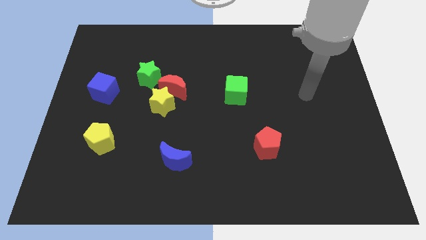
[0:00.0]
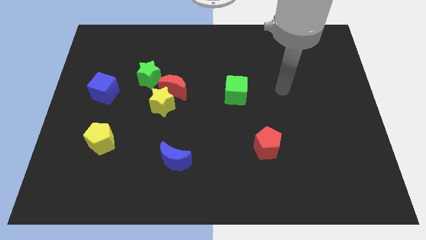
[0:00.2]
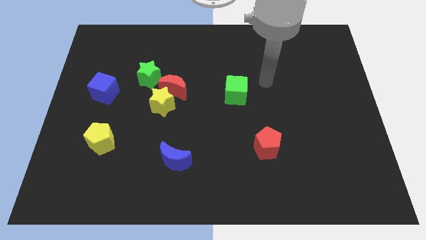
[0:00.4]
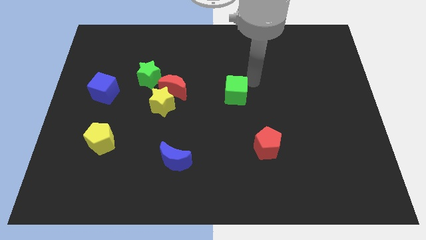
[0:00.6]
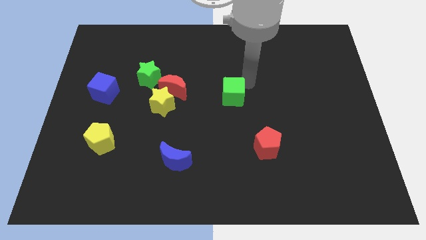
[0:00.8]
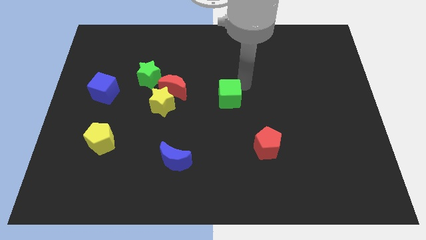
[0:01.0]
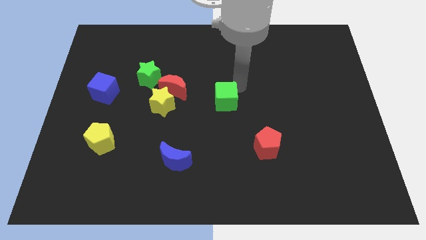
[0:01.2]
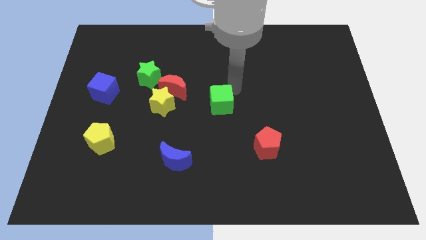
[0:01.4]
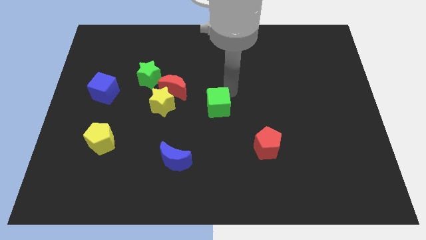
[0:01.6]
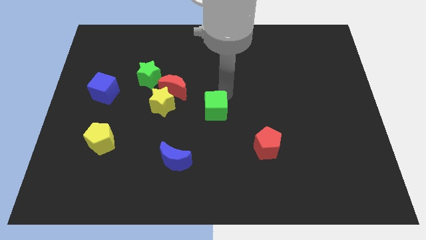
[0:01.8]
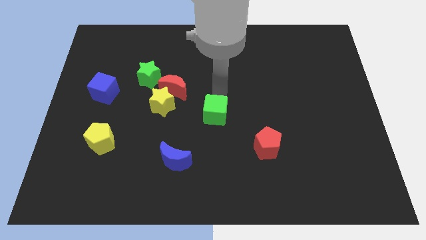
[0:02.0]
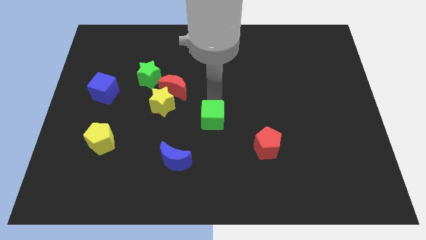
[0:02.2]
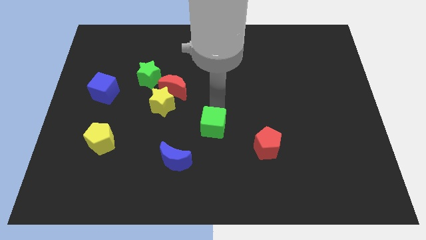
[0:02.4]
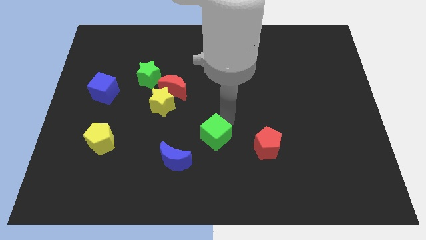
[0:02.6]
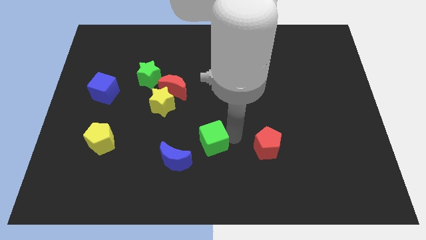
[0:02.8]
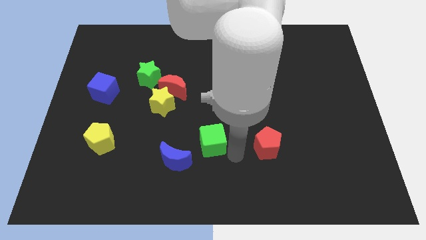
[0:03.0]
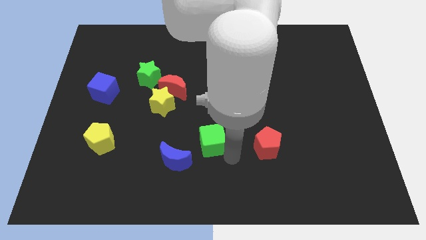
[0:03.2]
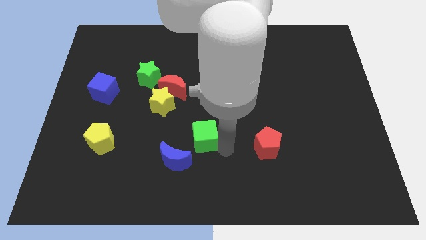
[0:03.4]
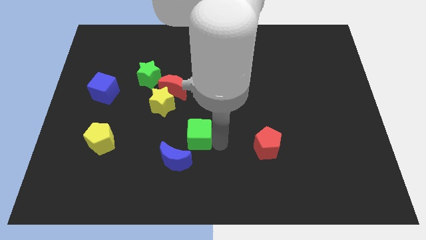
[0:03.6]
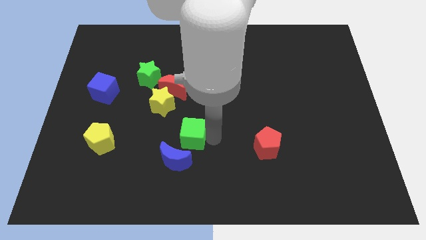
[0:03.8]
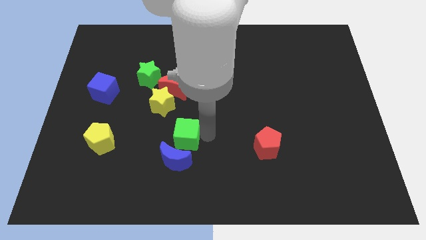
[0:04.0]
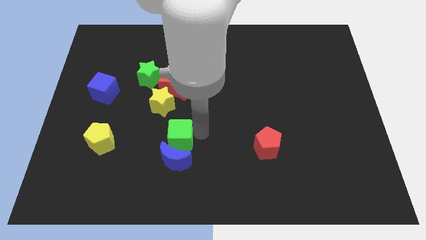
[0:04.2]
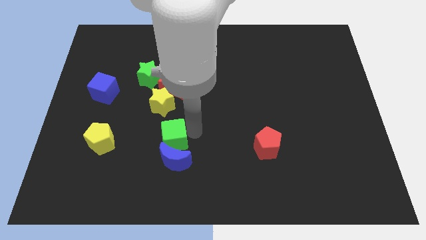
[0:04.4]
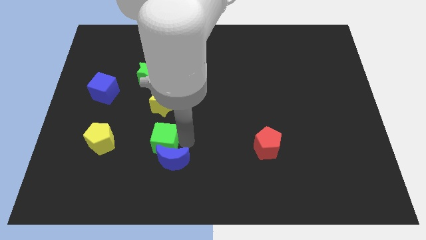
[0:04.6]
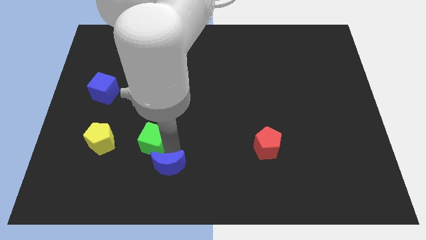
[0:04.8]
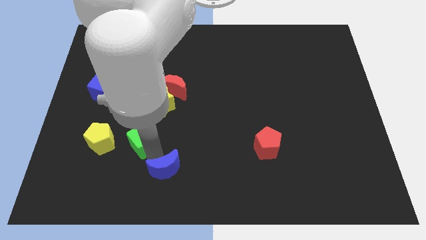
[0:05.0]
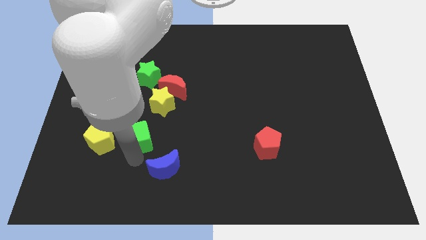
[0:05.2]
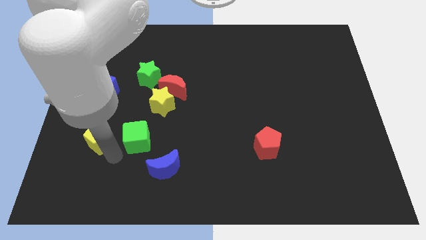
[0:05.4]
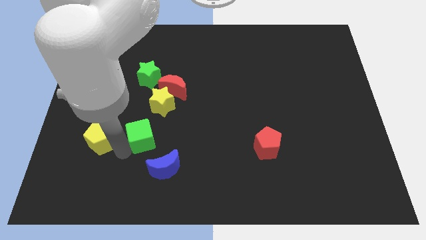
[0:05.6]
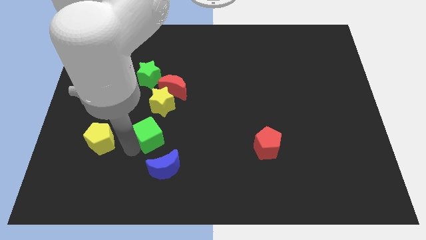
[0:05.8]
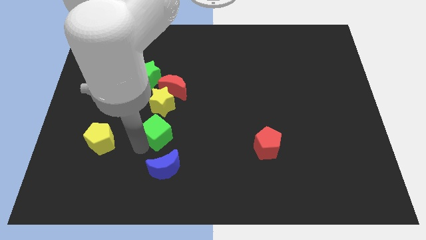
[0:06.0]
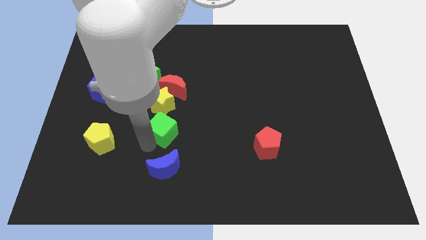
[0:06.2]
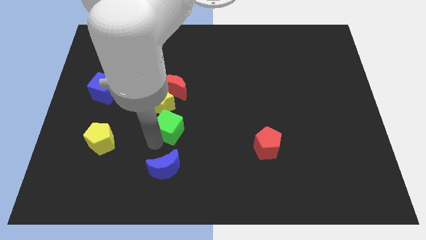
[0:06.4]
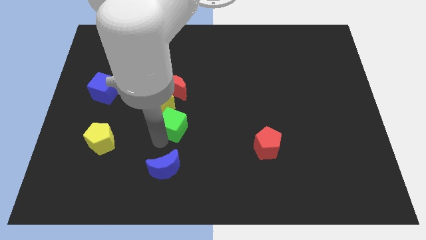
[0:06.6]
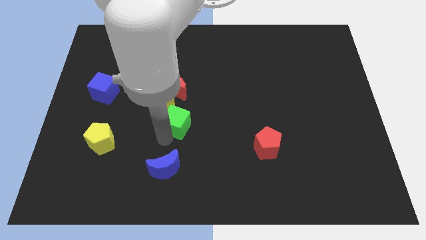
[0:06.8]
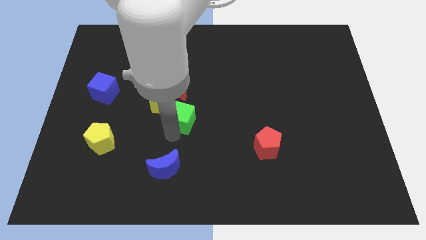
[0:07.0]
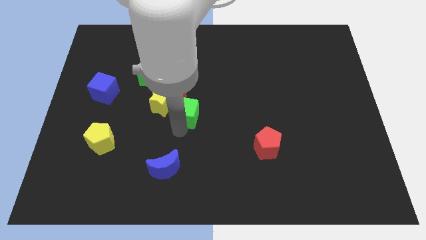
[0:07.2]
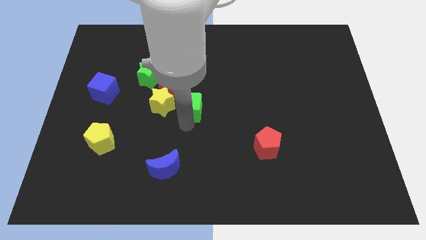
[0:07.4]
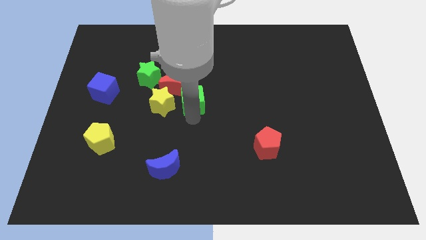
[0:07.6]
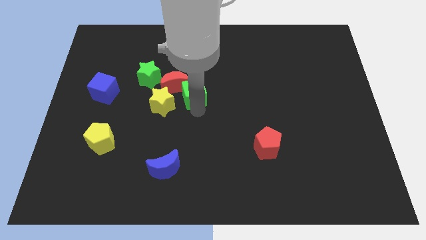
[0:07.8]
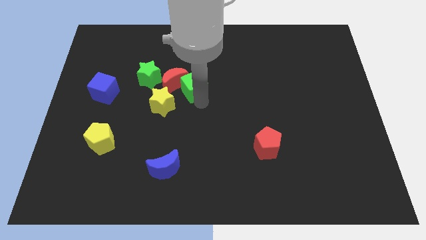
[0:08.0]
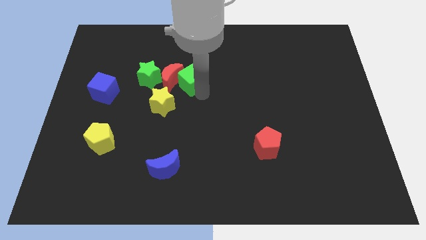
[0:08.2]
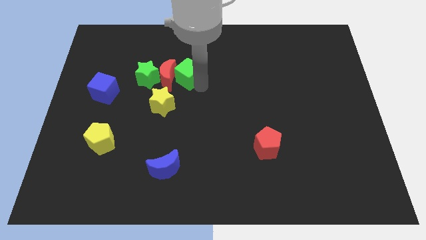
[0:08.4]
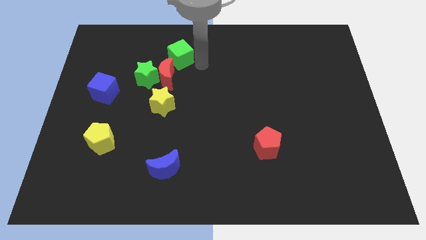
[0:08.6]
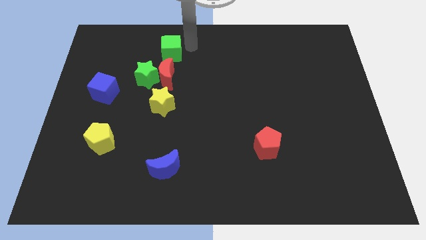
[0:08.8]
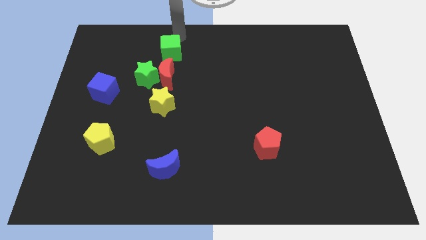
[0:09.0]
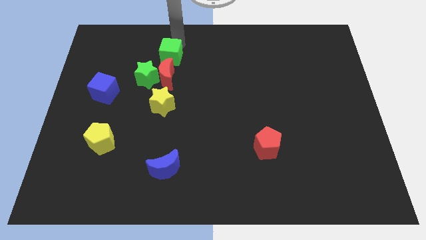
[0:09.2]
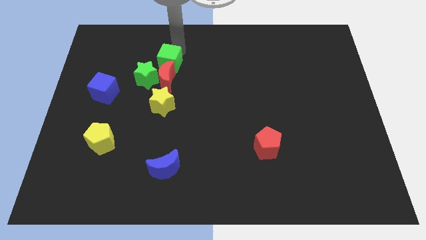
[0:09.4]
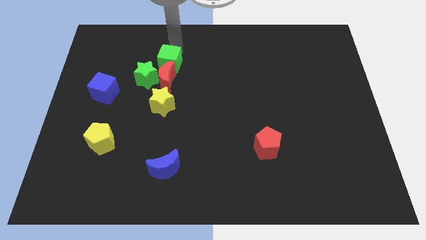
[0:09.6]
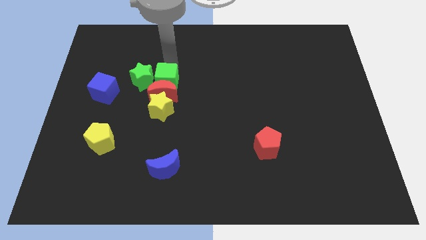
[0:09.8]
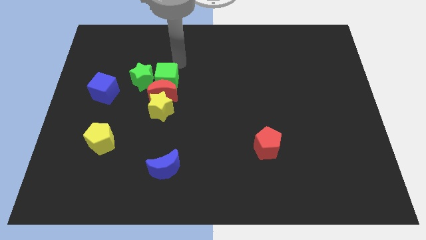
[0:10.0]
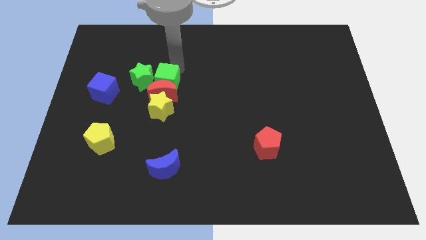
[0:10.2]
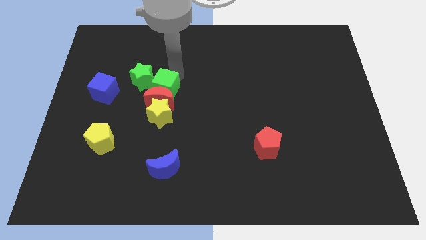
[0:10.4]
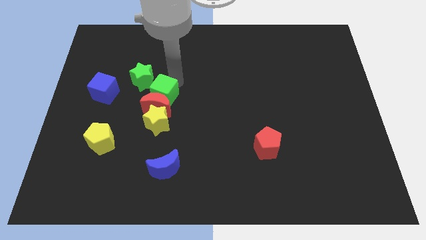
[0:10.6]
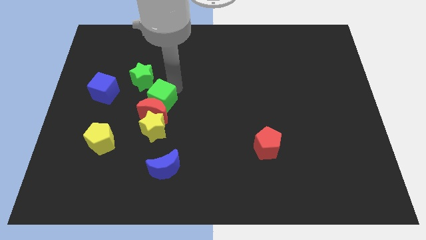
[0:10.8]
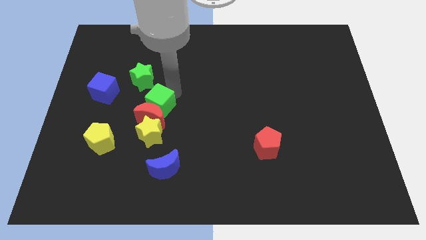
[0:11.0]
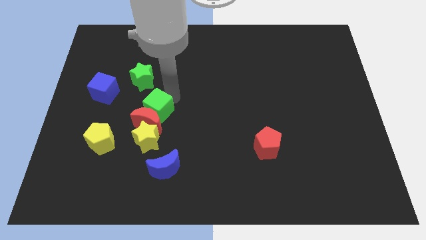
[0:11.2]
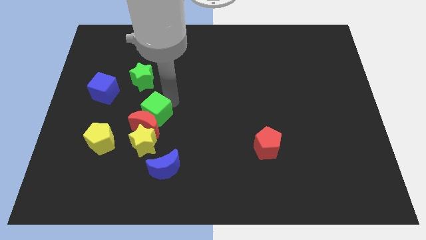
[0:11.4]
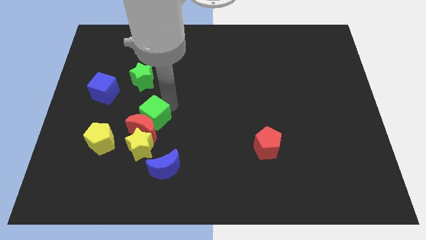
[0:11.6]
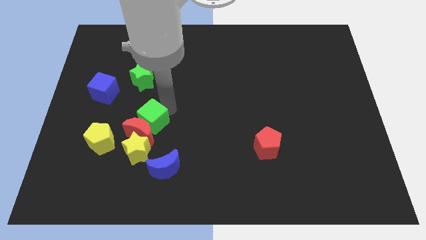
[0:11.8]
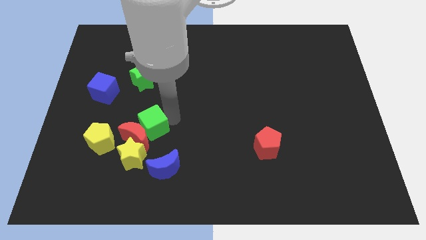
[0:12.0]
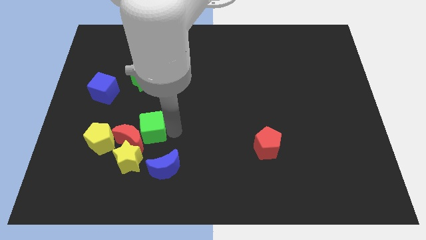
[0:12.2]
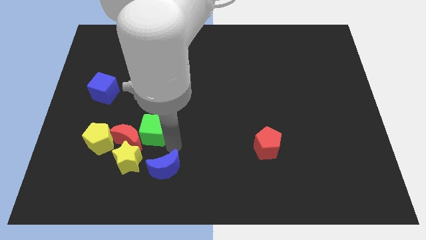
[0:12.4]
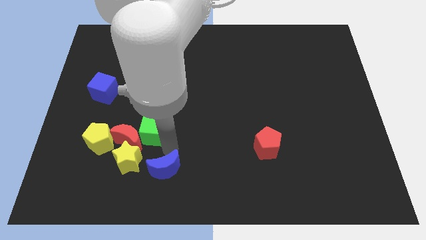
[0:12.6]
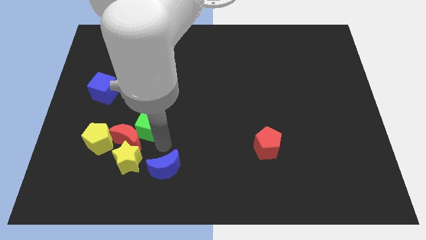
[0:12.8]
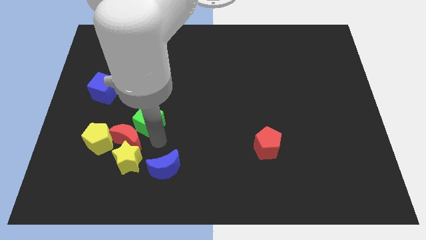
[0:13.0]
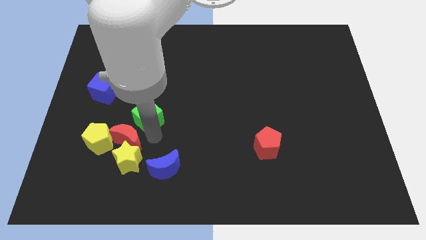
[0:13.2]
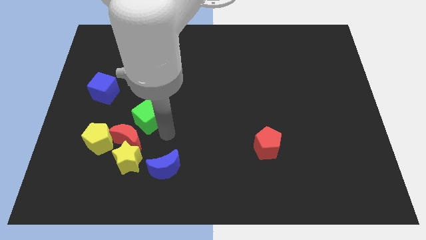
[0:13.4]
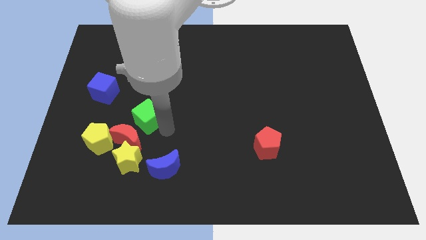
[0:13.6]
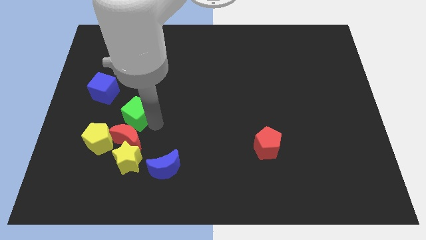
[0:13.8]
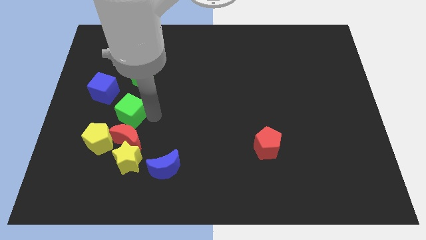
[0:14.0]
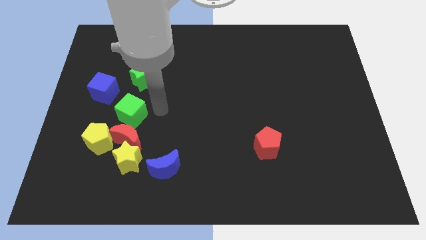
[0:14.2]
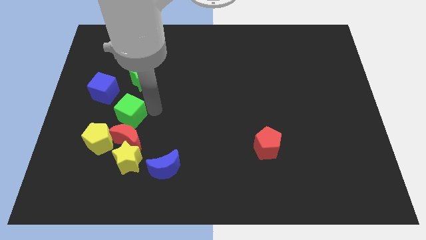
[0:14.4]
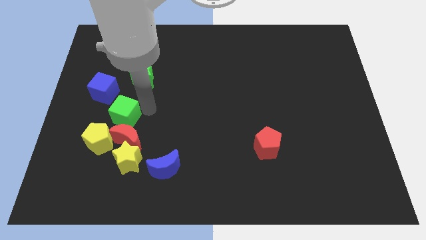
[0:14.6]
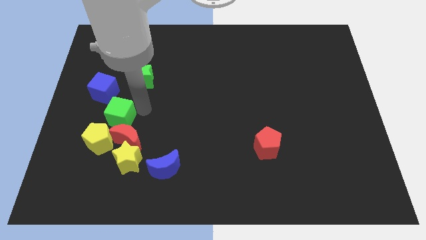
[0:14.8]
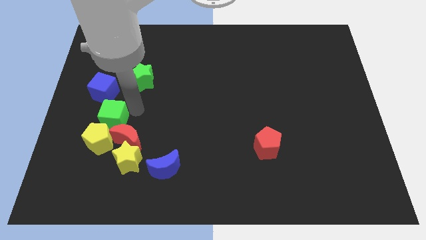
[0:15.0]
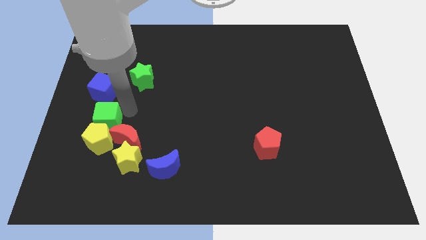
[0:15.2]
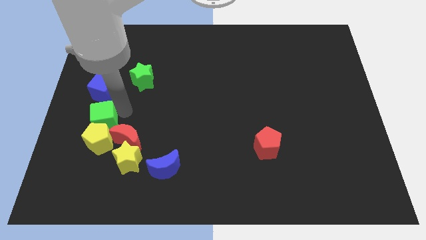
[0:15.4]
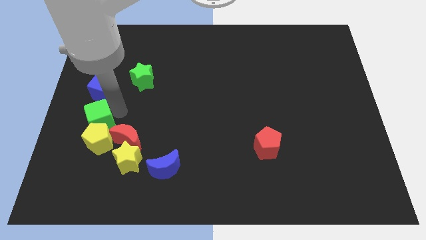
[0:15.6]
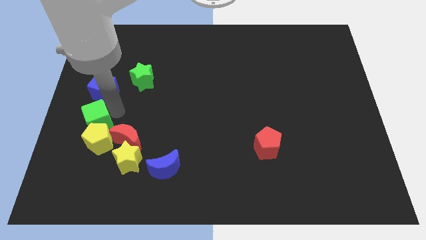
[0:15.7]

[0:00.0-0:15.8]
put the green cube to the left side
